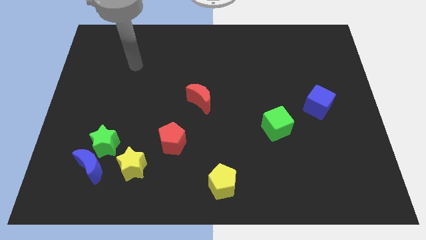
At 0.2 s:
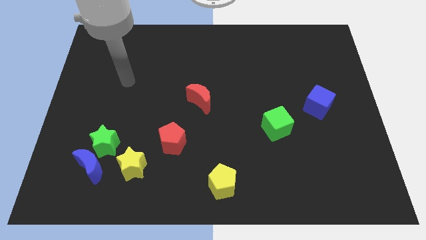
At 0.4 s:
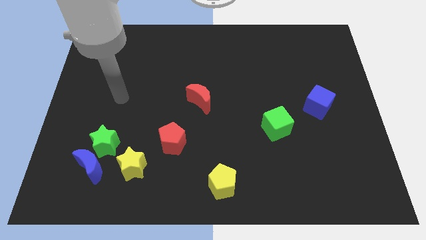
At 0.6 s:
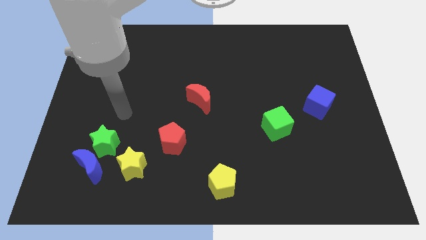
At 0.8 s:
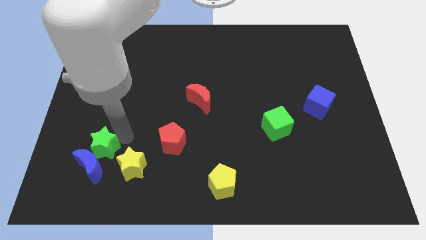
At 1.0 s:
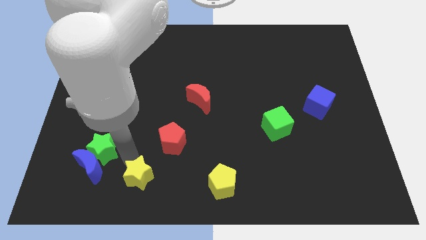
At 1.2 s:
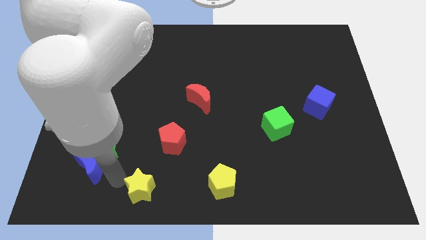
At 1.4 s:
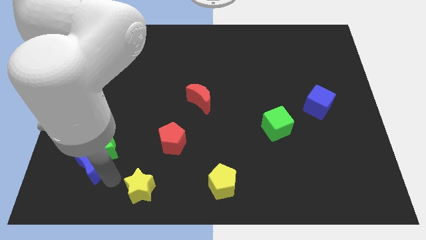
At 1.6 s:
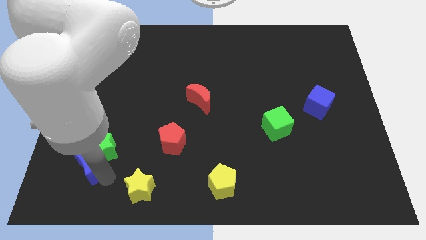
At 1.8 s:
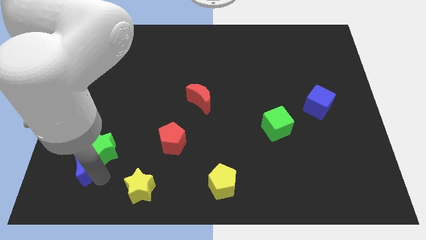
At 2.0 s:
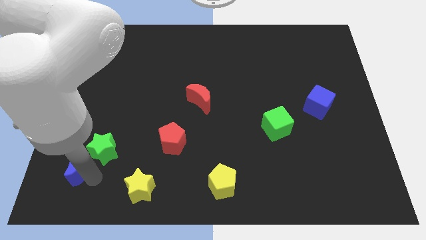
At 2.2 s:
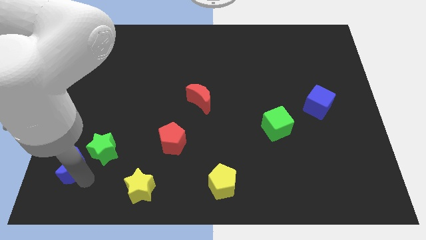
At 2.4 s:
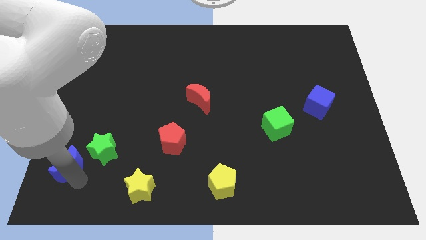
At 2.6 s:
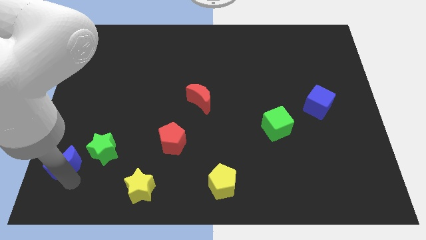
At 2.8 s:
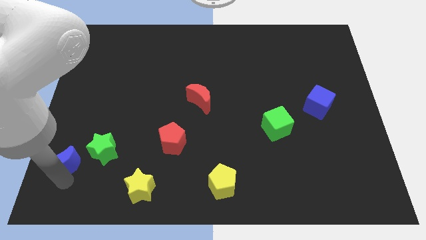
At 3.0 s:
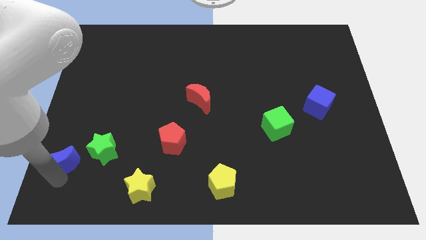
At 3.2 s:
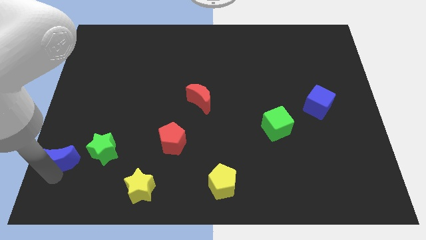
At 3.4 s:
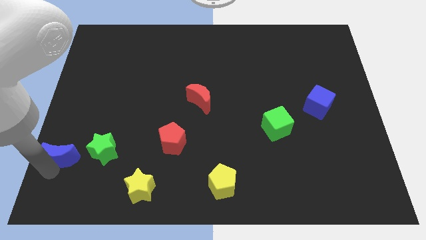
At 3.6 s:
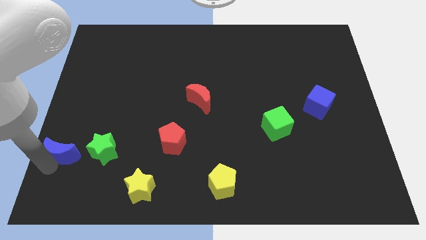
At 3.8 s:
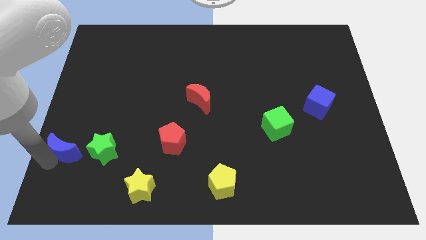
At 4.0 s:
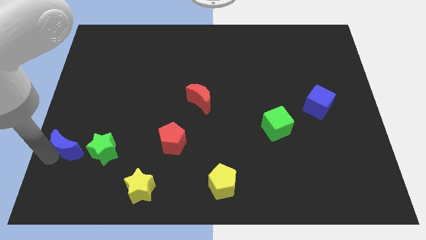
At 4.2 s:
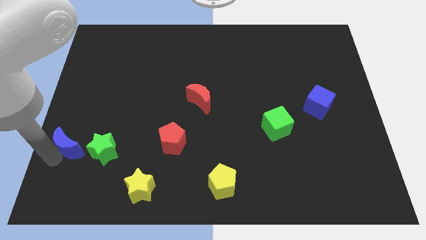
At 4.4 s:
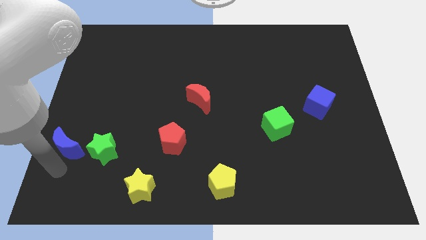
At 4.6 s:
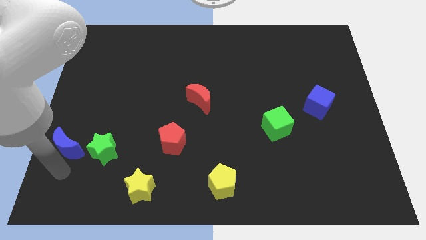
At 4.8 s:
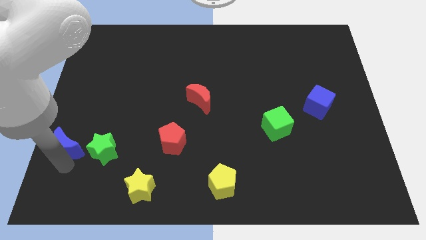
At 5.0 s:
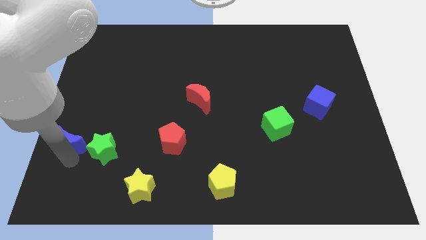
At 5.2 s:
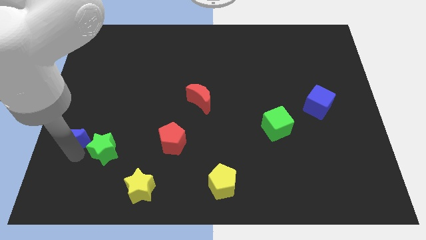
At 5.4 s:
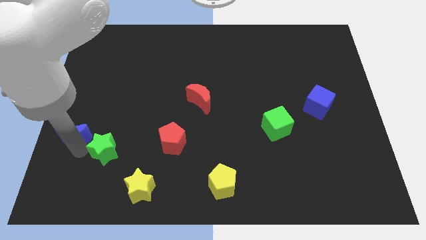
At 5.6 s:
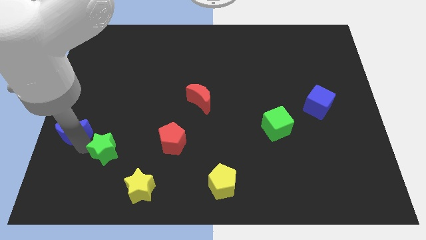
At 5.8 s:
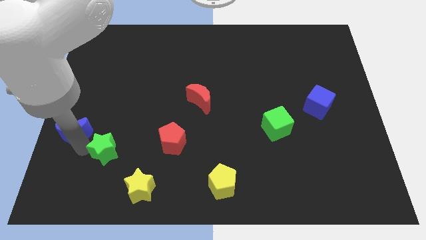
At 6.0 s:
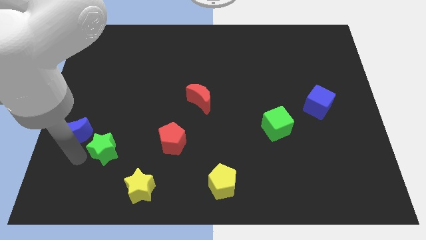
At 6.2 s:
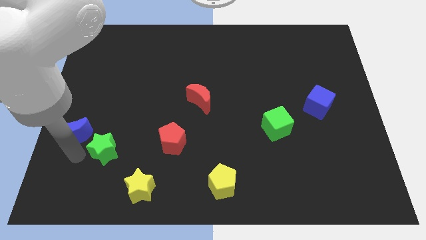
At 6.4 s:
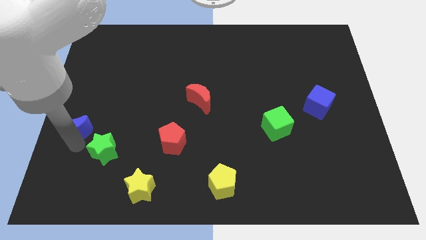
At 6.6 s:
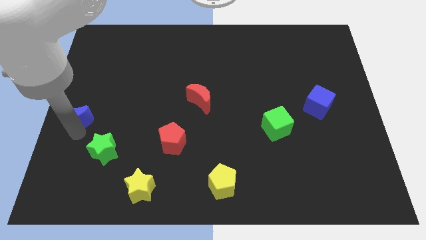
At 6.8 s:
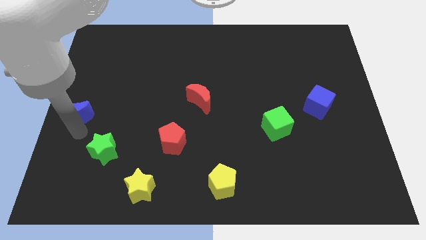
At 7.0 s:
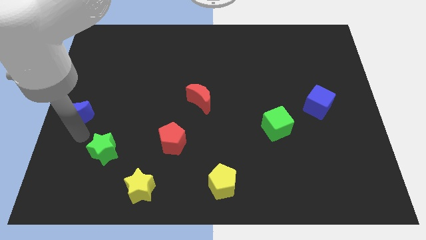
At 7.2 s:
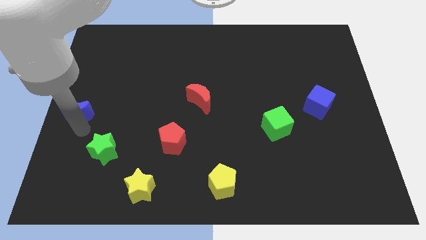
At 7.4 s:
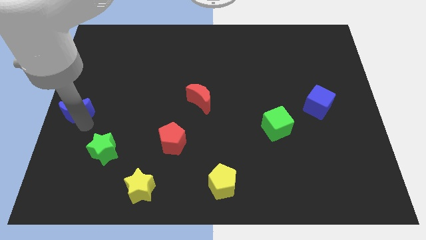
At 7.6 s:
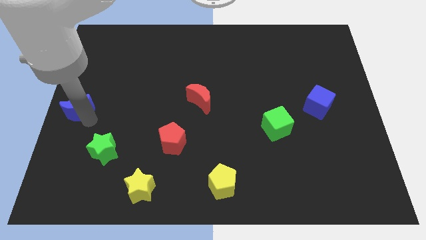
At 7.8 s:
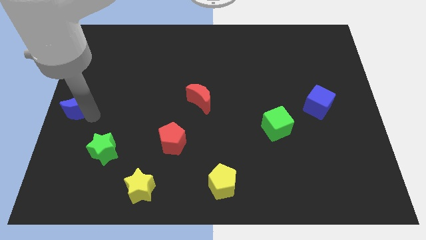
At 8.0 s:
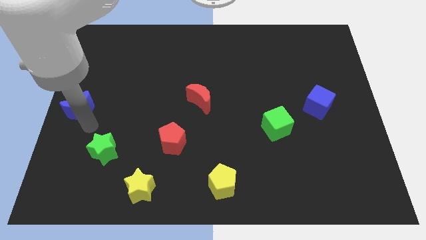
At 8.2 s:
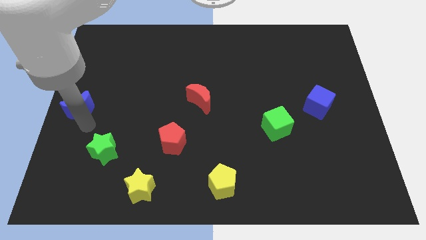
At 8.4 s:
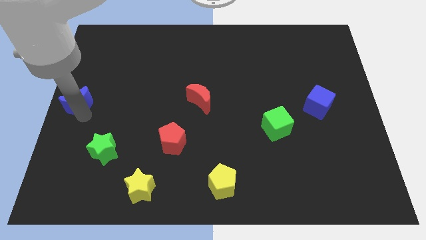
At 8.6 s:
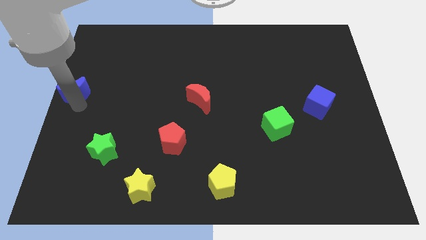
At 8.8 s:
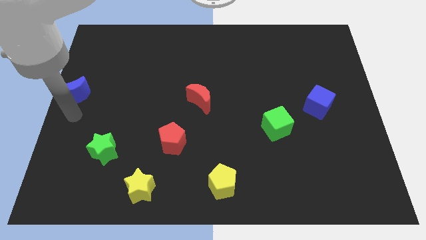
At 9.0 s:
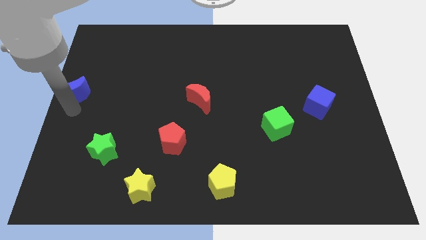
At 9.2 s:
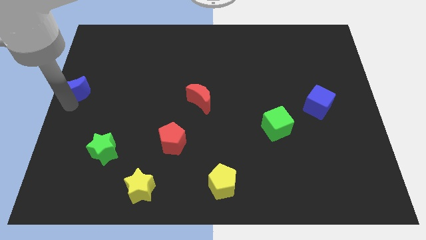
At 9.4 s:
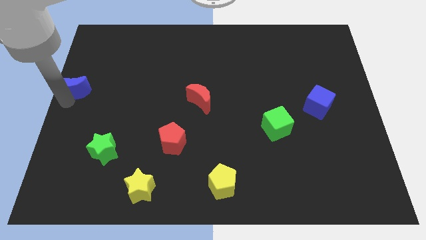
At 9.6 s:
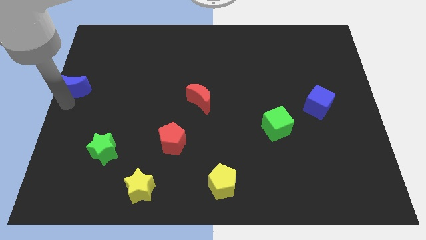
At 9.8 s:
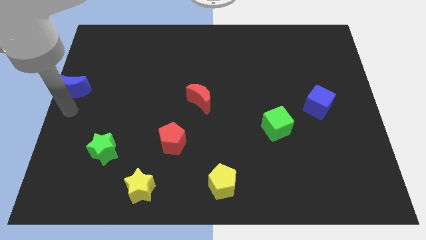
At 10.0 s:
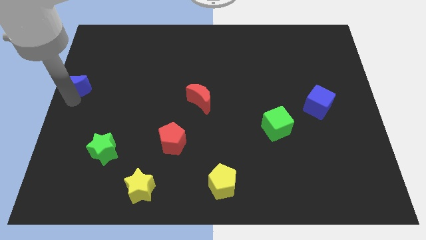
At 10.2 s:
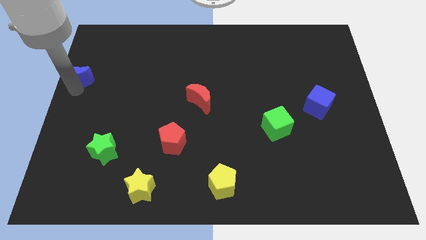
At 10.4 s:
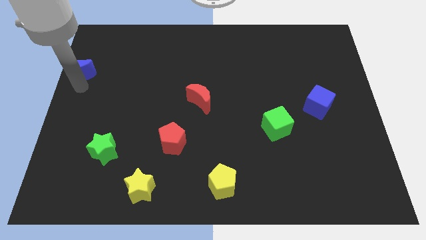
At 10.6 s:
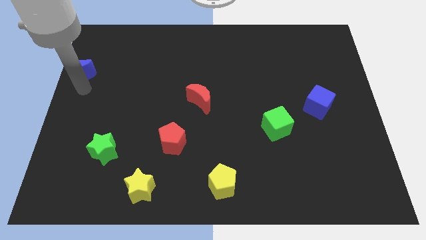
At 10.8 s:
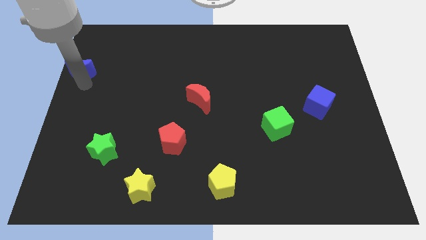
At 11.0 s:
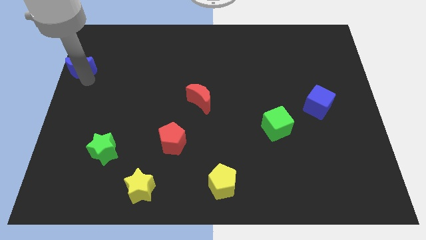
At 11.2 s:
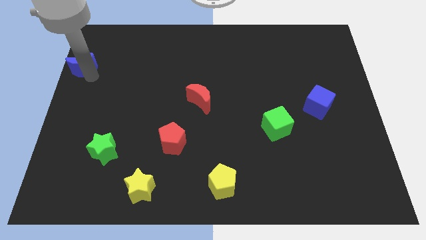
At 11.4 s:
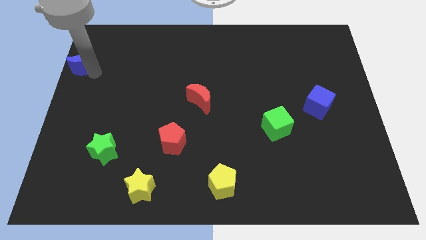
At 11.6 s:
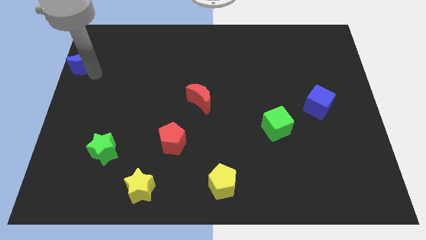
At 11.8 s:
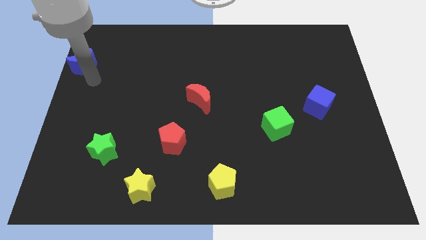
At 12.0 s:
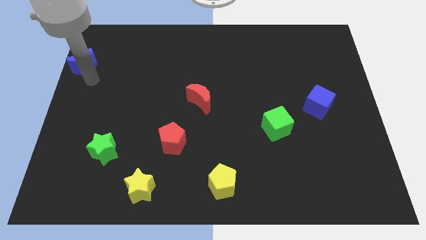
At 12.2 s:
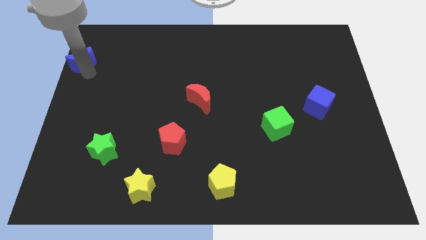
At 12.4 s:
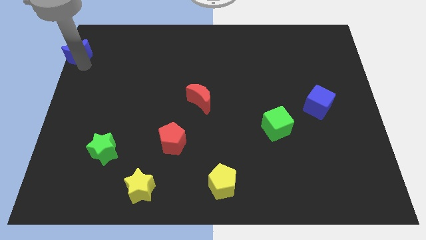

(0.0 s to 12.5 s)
push the blue moon to the top left of the board

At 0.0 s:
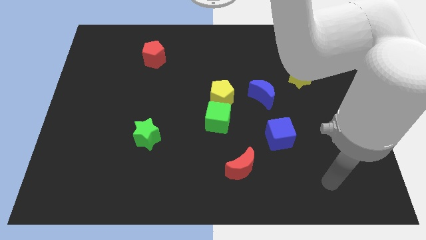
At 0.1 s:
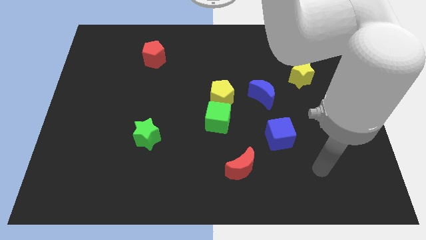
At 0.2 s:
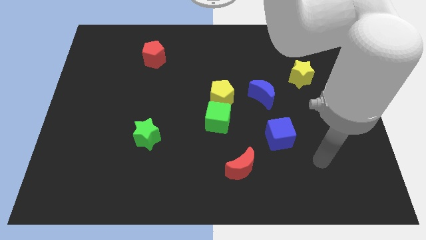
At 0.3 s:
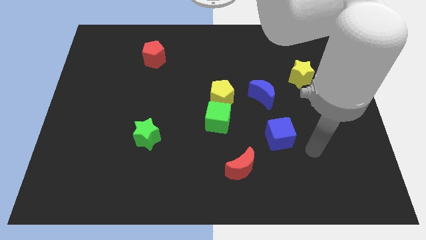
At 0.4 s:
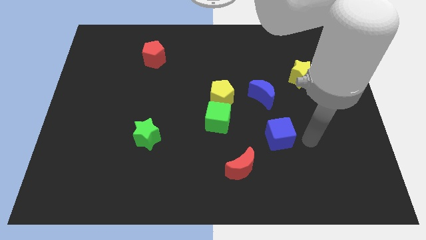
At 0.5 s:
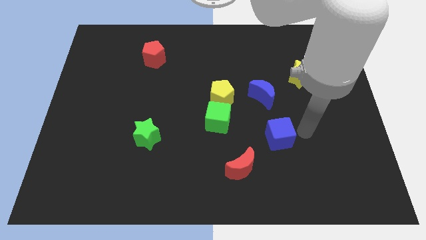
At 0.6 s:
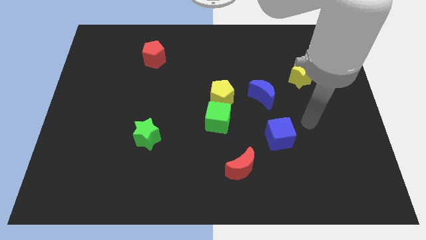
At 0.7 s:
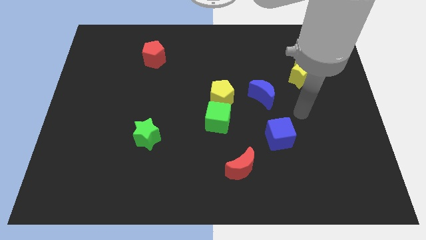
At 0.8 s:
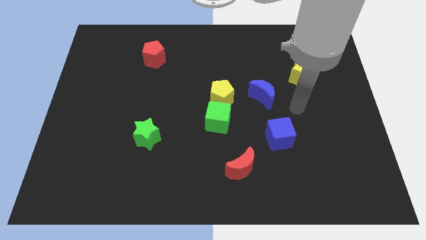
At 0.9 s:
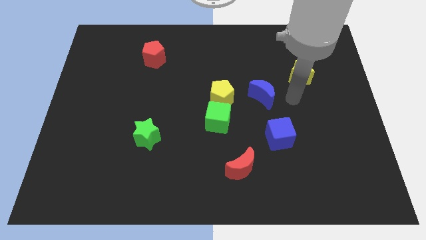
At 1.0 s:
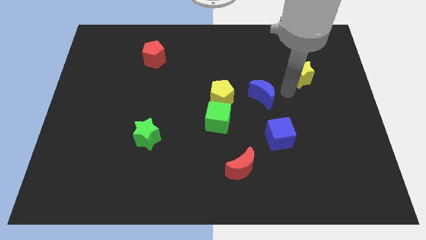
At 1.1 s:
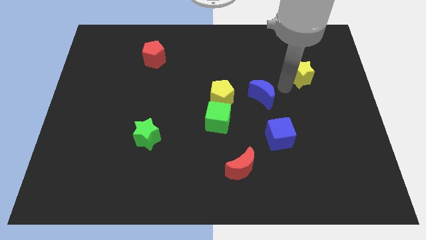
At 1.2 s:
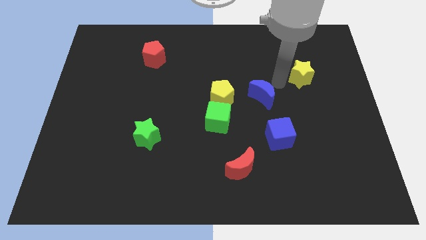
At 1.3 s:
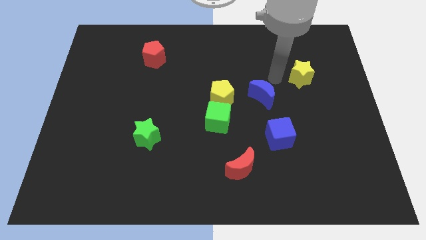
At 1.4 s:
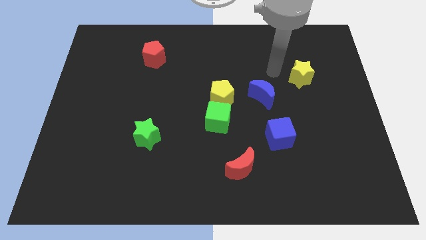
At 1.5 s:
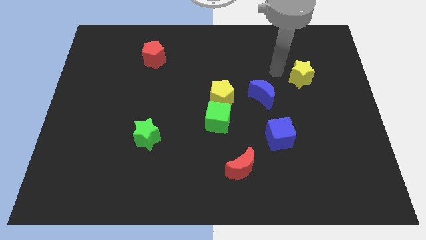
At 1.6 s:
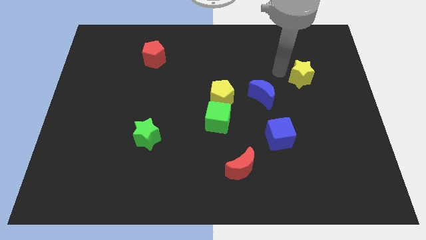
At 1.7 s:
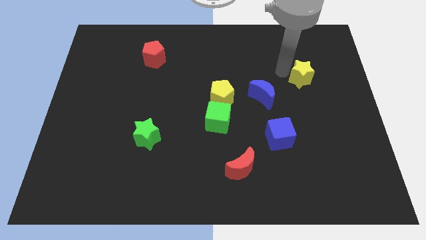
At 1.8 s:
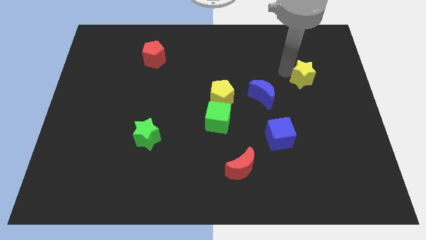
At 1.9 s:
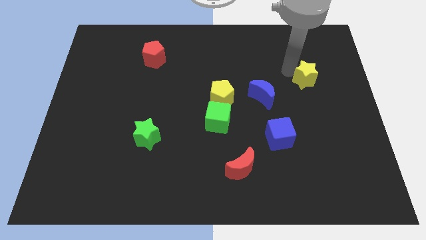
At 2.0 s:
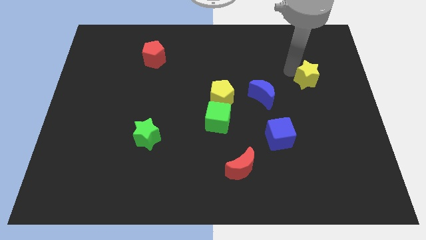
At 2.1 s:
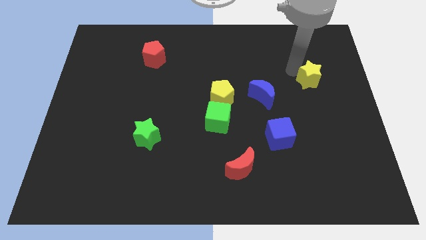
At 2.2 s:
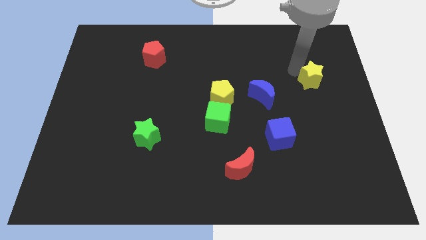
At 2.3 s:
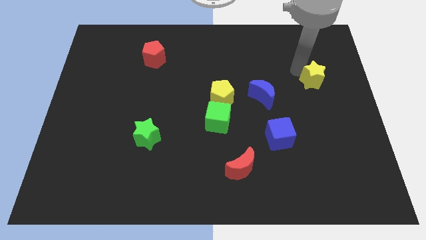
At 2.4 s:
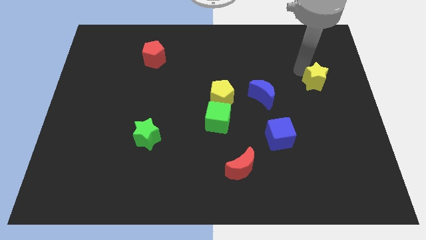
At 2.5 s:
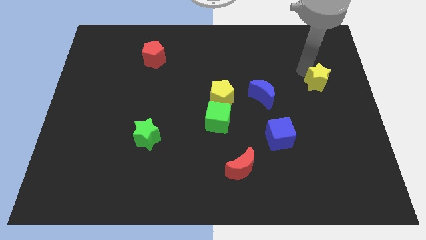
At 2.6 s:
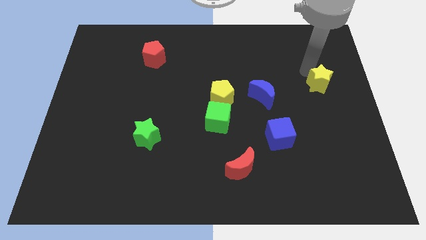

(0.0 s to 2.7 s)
move the yellow star to the right side of the board
